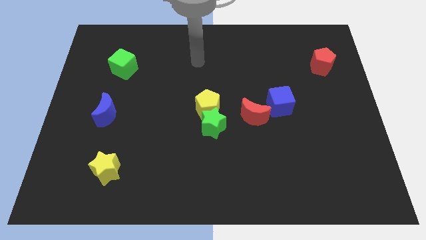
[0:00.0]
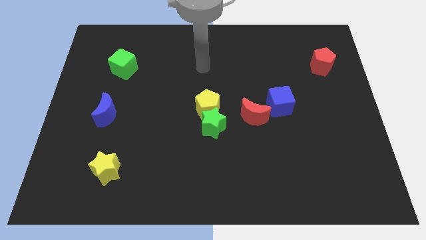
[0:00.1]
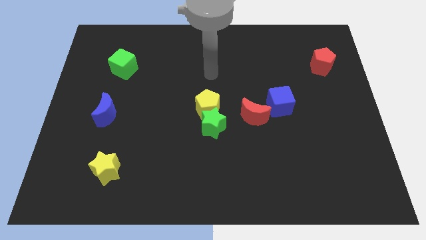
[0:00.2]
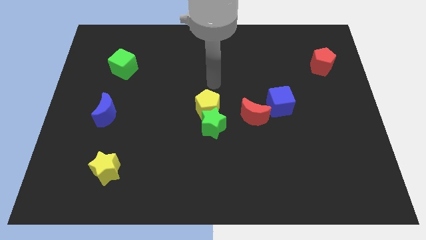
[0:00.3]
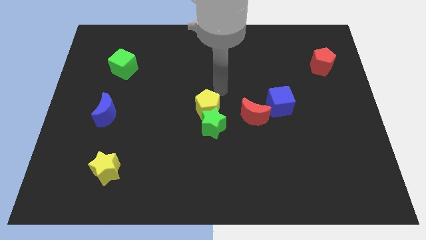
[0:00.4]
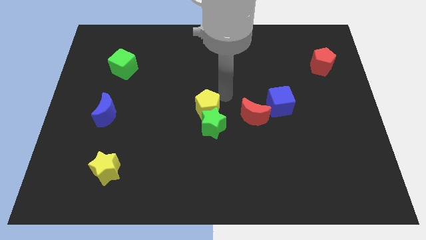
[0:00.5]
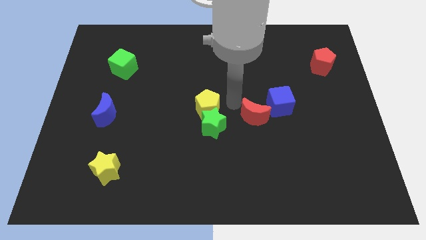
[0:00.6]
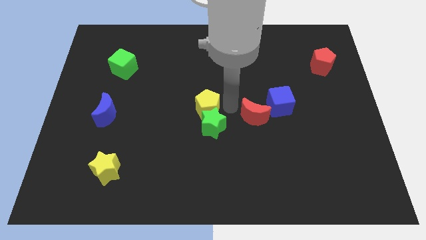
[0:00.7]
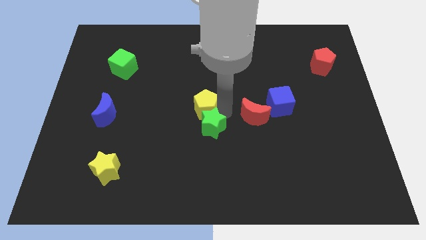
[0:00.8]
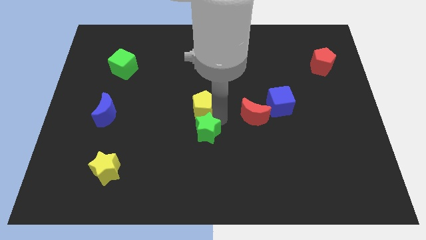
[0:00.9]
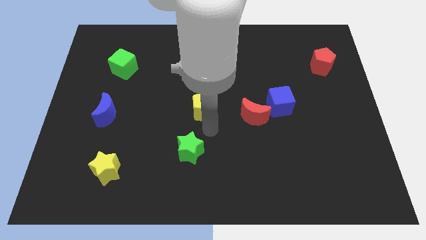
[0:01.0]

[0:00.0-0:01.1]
separate the yellow pentagon from the green star

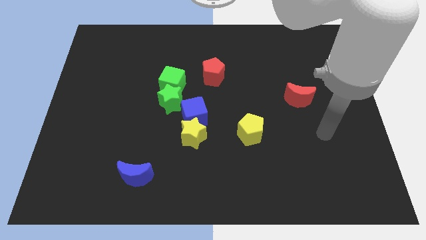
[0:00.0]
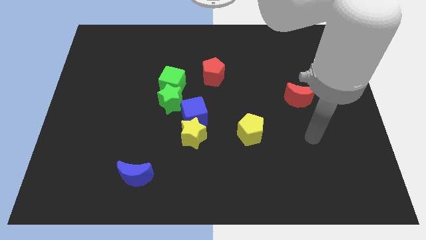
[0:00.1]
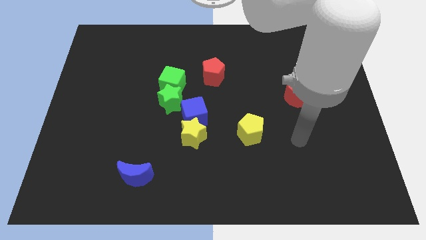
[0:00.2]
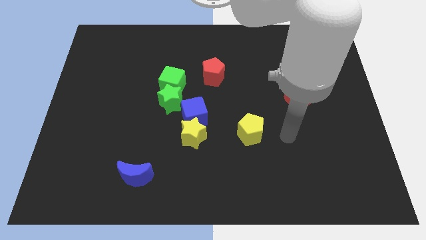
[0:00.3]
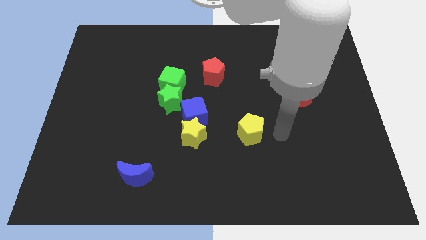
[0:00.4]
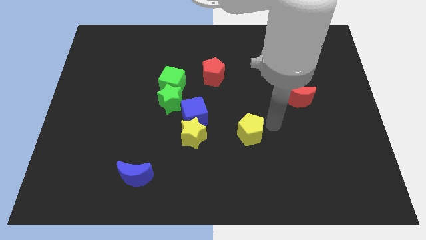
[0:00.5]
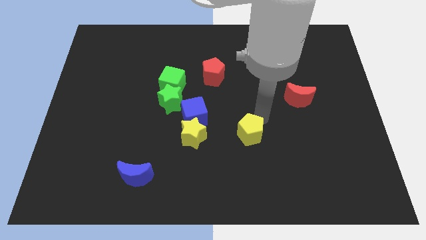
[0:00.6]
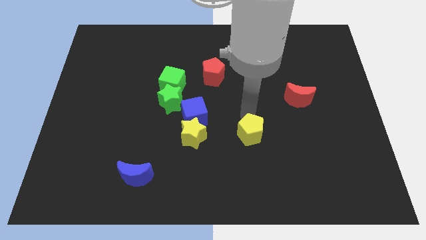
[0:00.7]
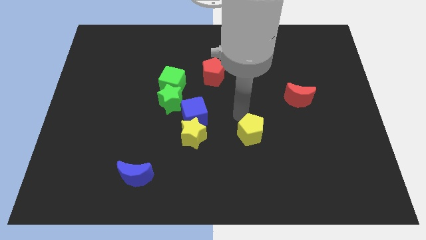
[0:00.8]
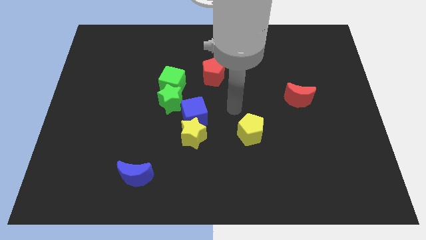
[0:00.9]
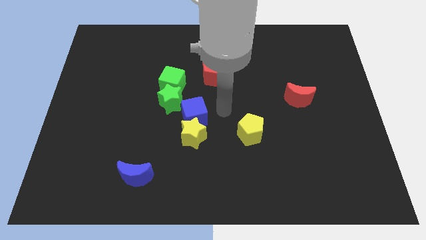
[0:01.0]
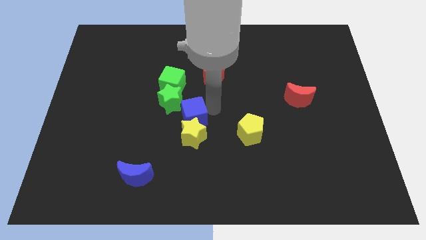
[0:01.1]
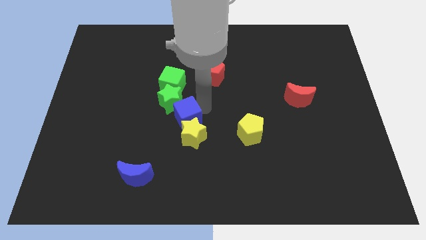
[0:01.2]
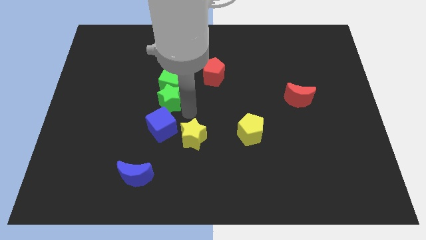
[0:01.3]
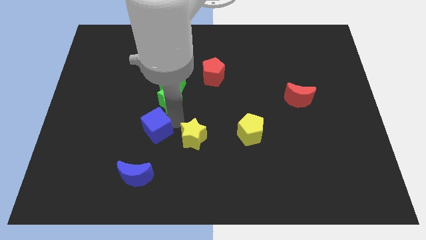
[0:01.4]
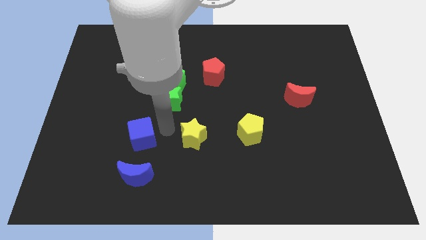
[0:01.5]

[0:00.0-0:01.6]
separate the yellow star from the blue cube

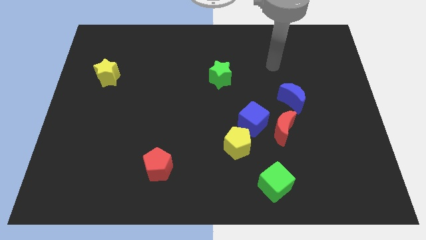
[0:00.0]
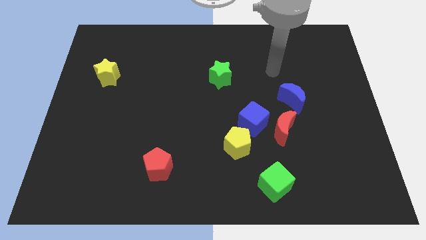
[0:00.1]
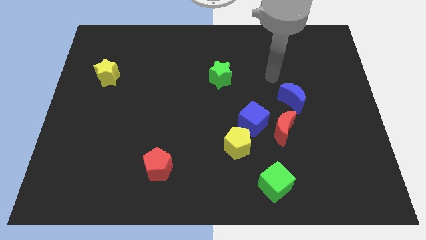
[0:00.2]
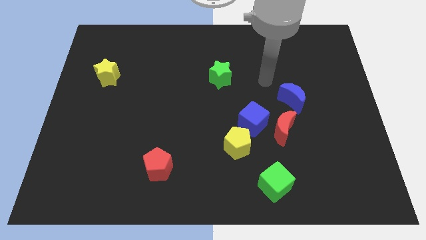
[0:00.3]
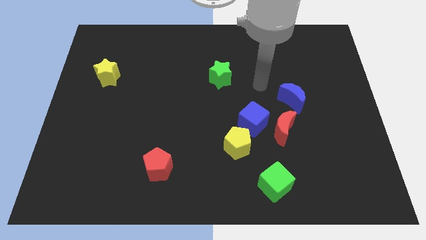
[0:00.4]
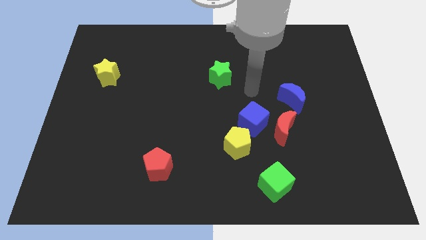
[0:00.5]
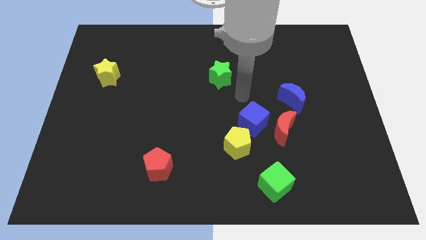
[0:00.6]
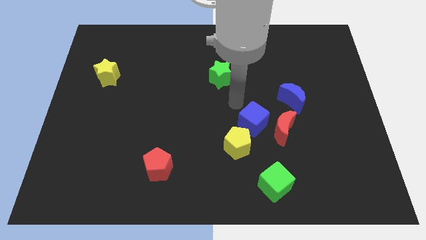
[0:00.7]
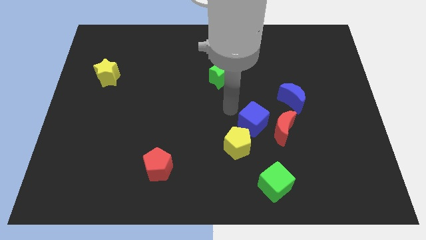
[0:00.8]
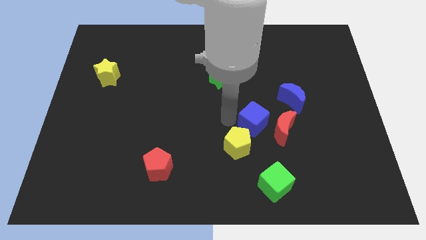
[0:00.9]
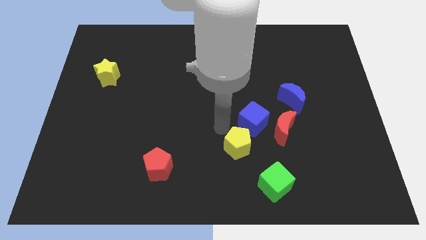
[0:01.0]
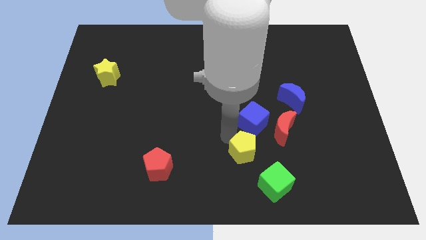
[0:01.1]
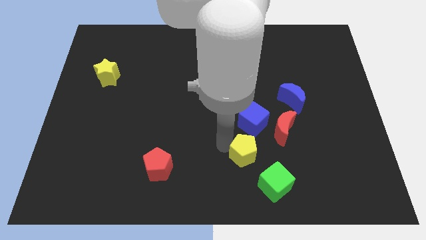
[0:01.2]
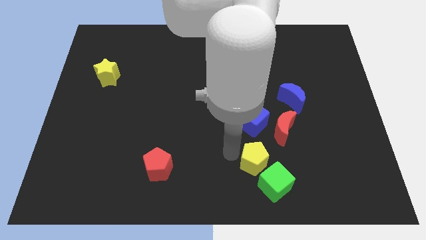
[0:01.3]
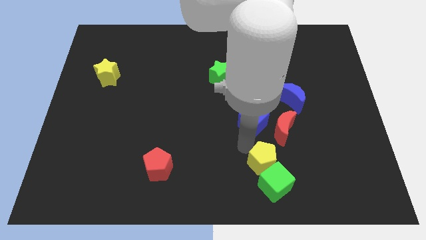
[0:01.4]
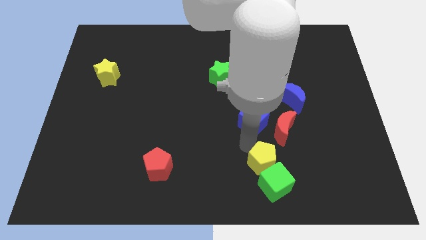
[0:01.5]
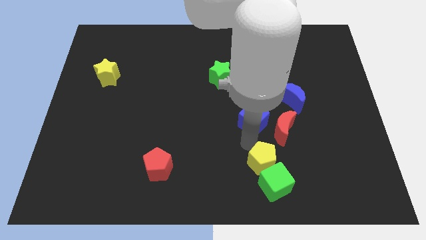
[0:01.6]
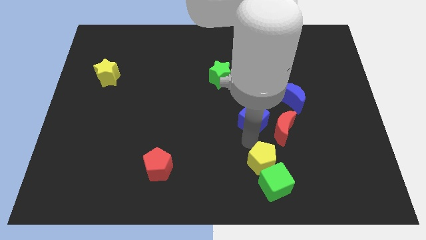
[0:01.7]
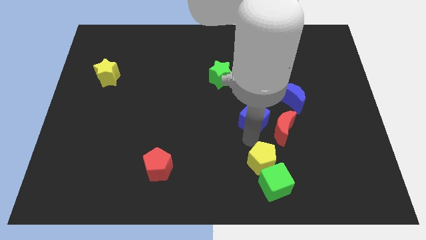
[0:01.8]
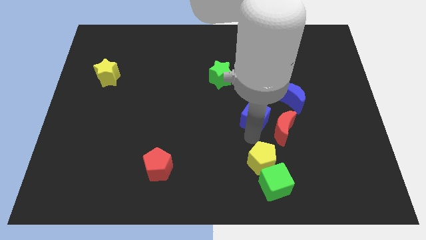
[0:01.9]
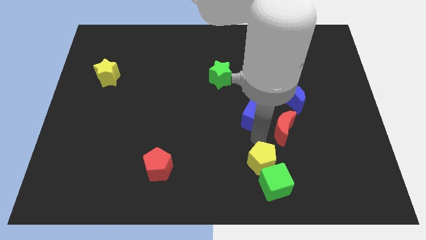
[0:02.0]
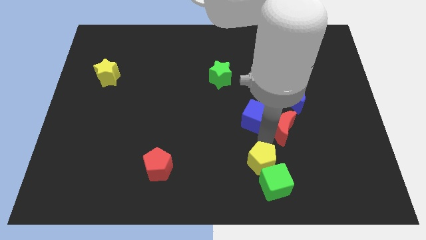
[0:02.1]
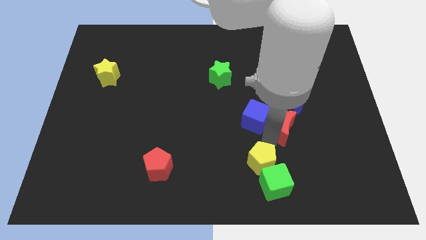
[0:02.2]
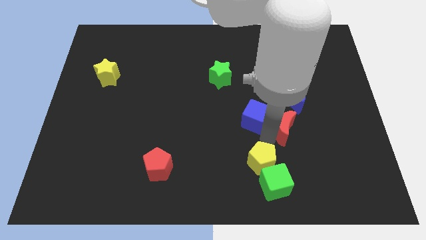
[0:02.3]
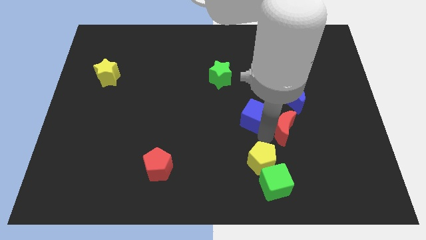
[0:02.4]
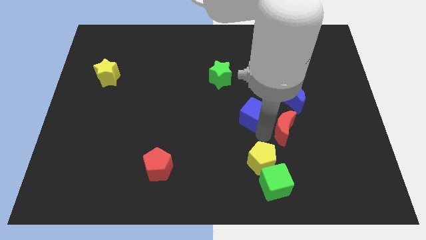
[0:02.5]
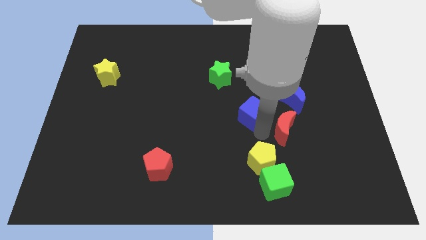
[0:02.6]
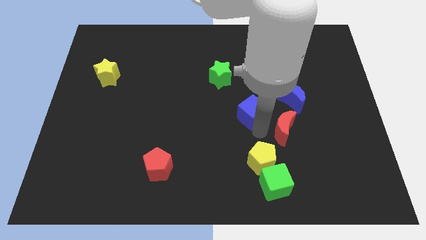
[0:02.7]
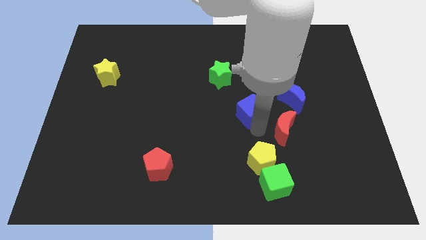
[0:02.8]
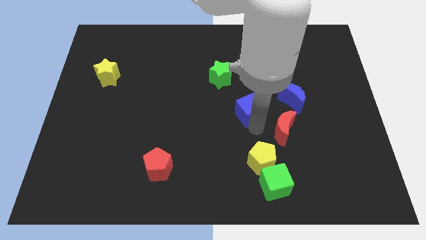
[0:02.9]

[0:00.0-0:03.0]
move the blue cube away from the red moon and yellow pentagon

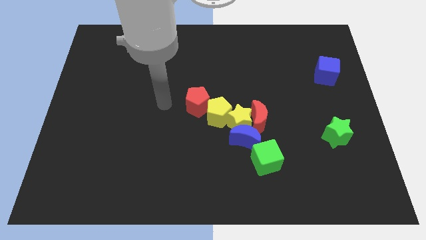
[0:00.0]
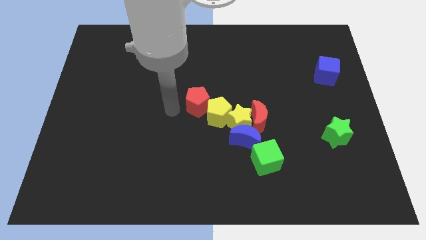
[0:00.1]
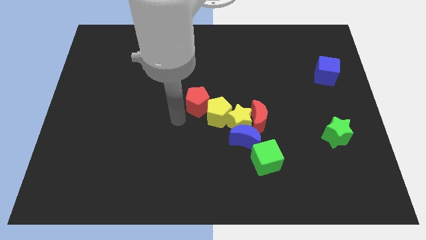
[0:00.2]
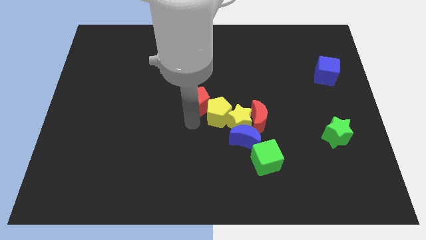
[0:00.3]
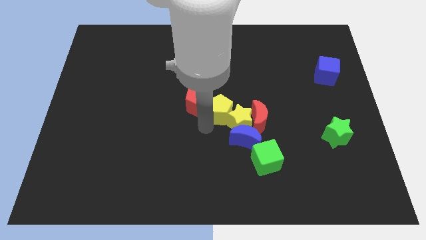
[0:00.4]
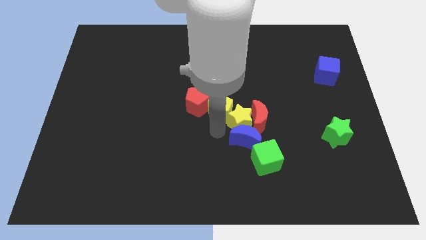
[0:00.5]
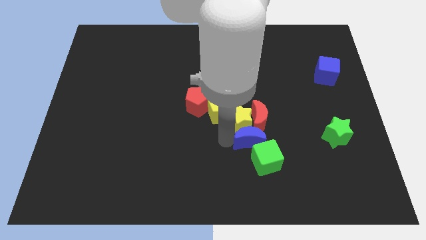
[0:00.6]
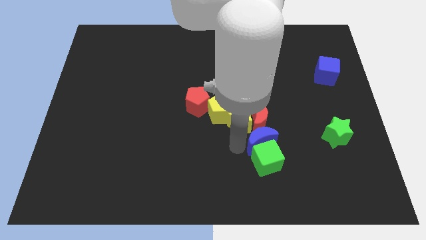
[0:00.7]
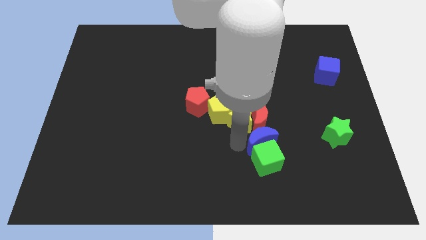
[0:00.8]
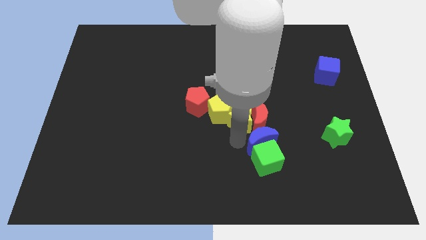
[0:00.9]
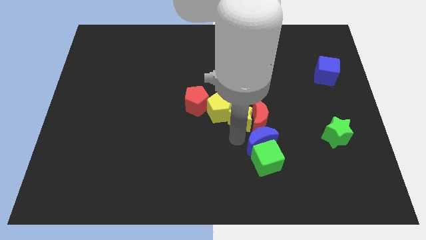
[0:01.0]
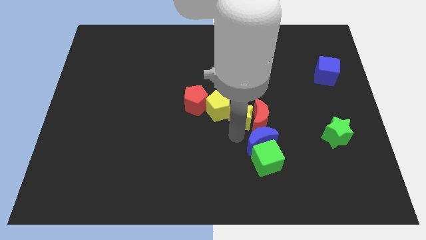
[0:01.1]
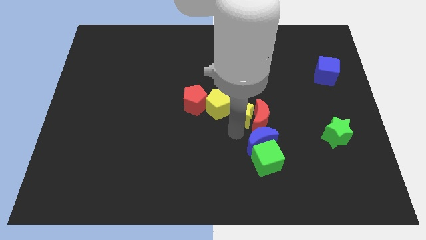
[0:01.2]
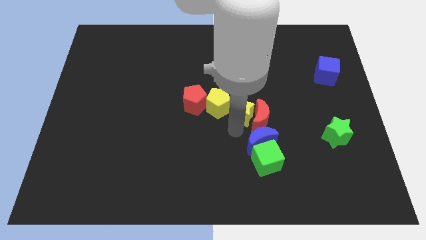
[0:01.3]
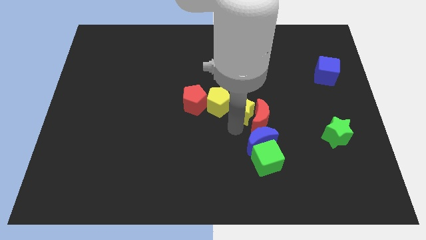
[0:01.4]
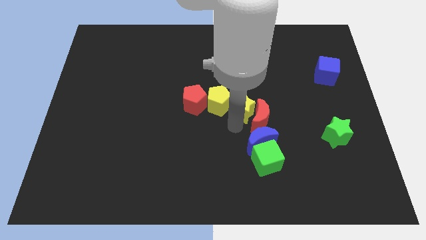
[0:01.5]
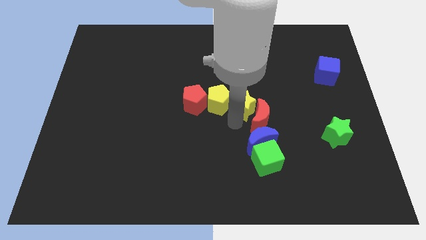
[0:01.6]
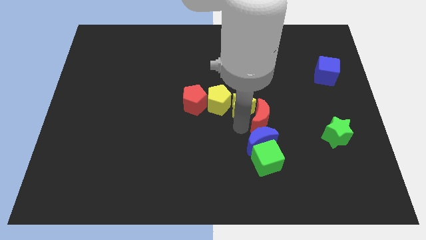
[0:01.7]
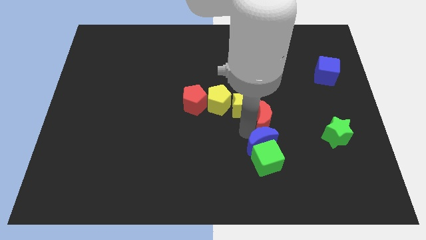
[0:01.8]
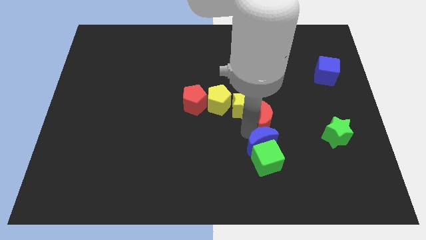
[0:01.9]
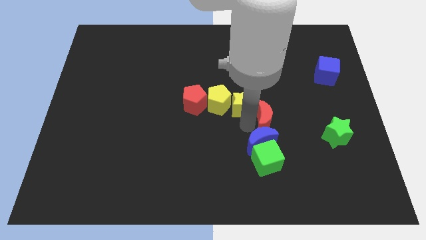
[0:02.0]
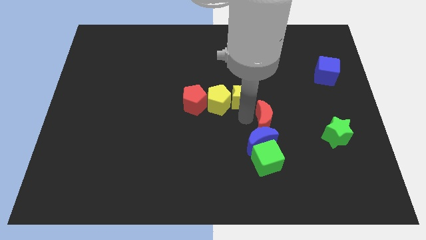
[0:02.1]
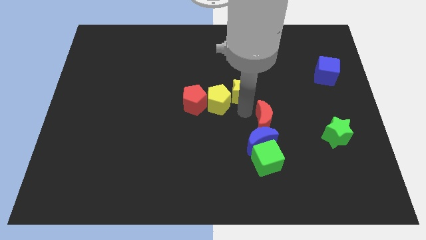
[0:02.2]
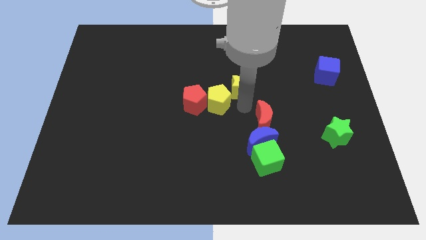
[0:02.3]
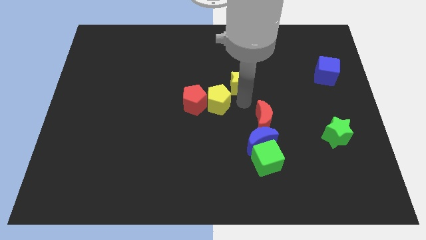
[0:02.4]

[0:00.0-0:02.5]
move the yellow star away from the clump

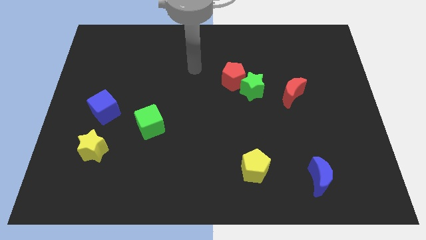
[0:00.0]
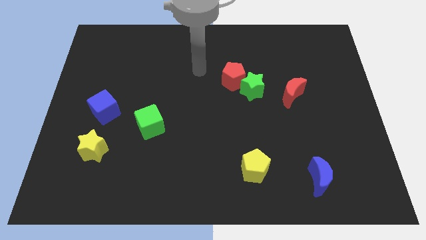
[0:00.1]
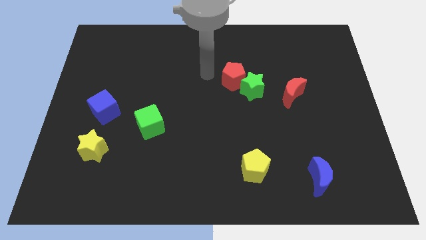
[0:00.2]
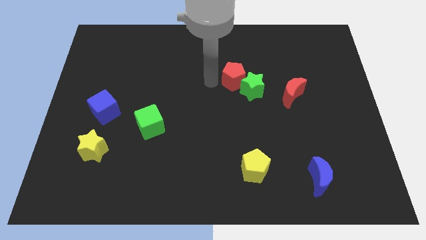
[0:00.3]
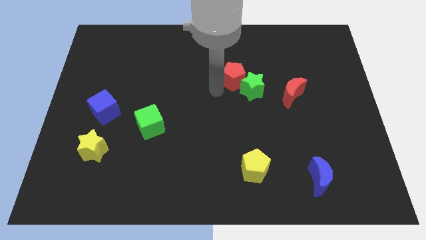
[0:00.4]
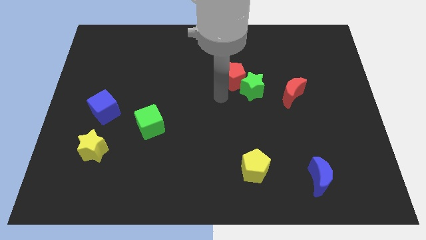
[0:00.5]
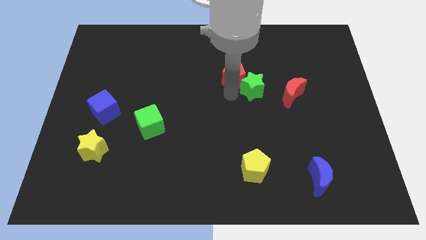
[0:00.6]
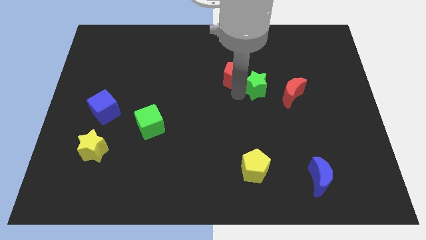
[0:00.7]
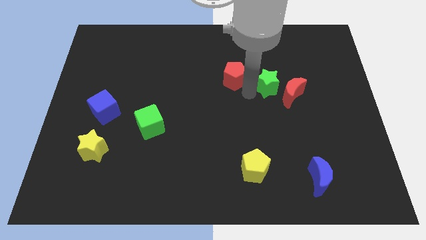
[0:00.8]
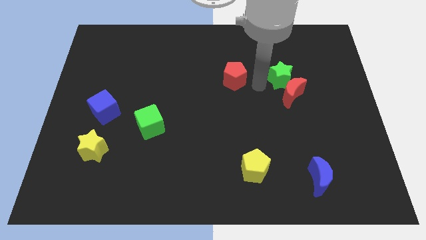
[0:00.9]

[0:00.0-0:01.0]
pull the red pentagon apart from the green star
